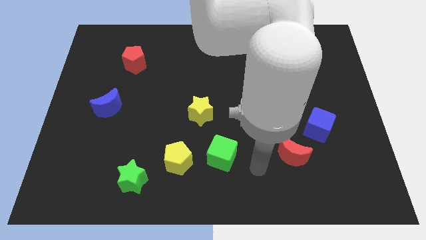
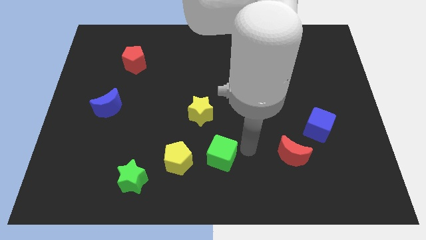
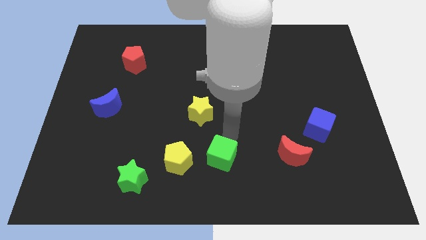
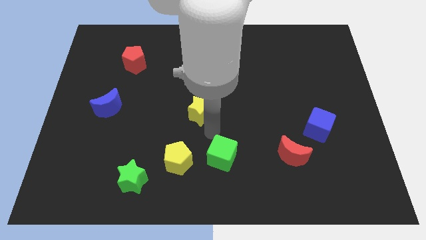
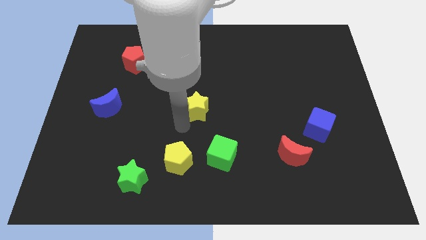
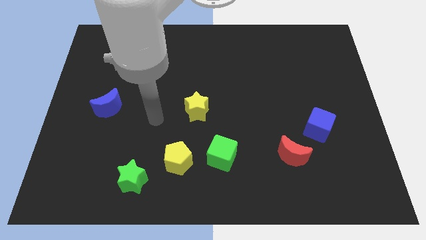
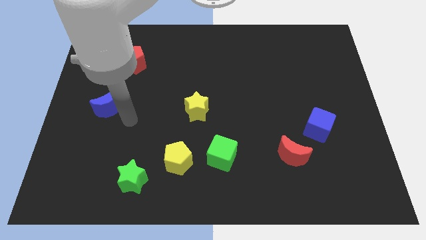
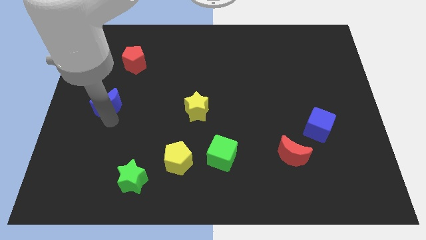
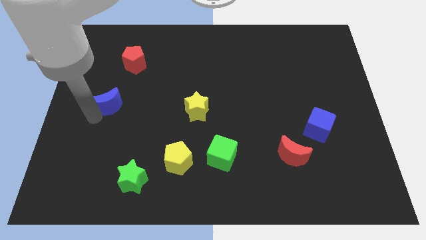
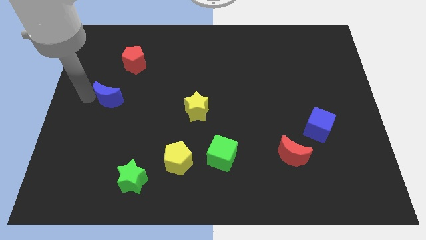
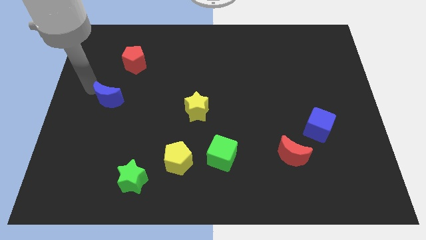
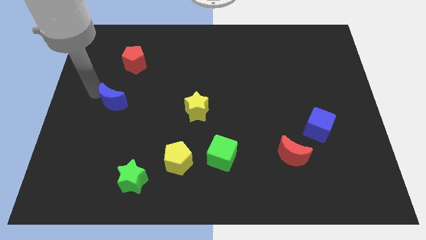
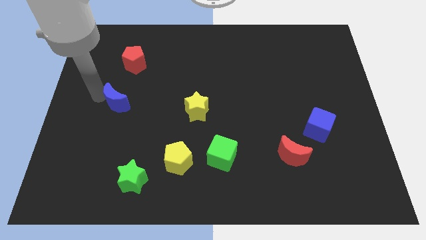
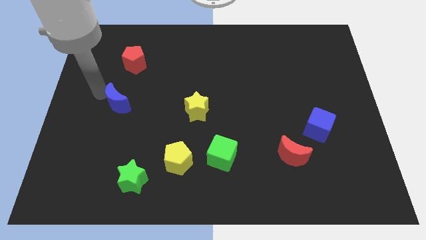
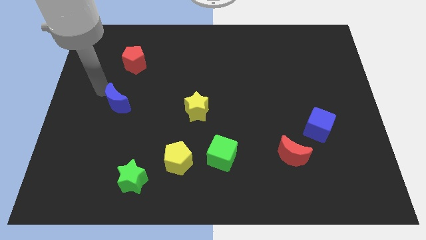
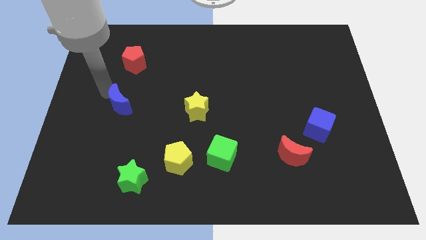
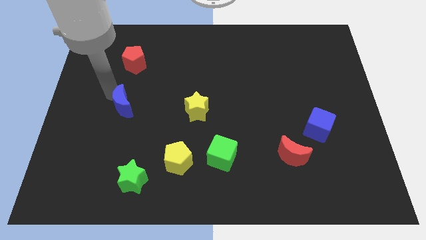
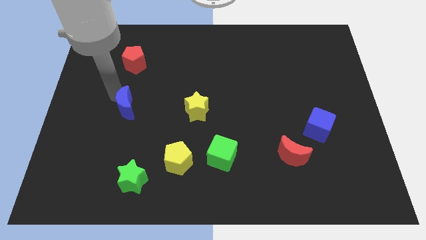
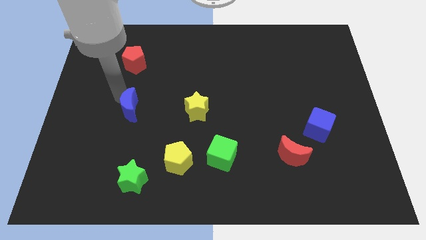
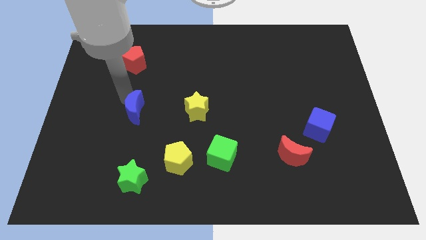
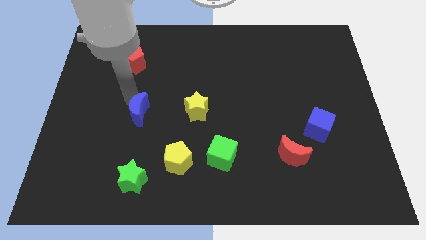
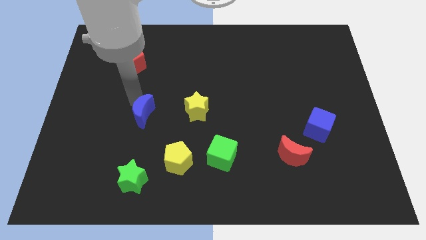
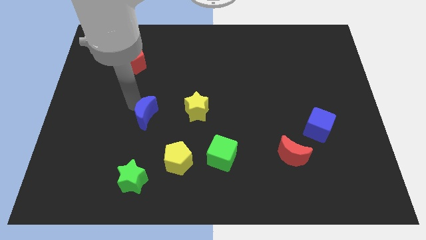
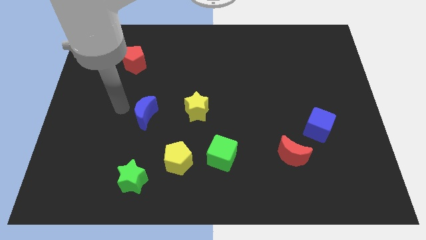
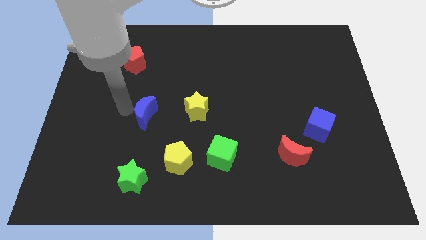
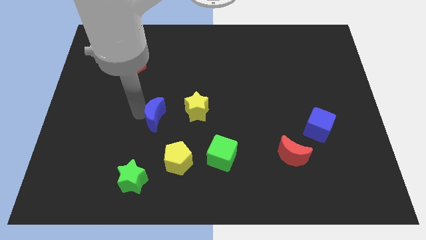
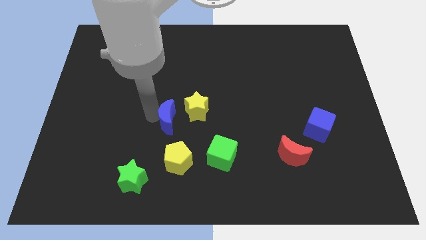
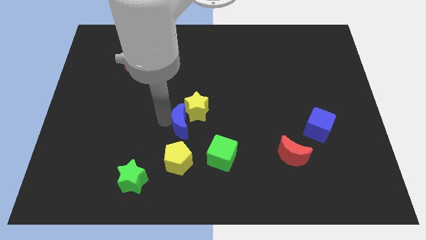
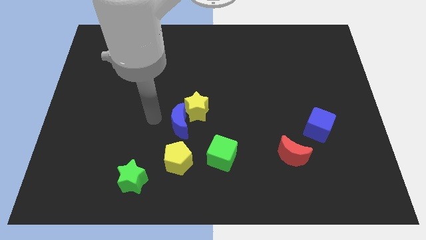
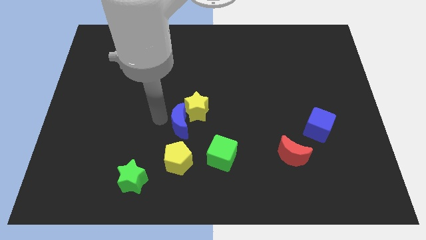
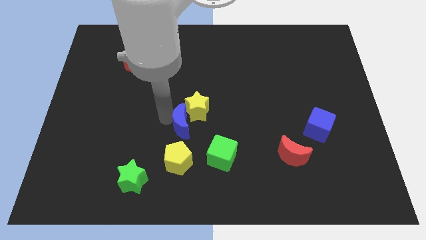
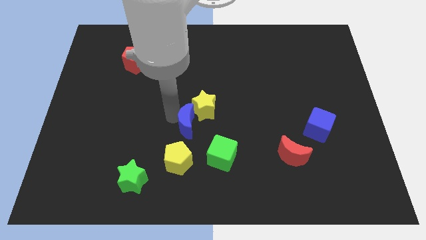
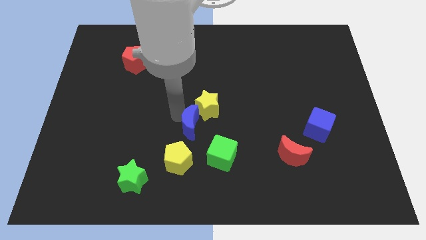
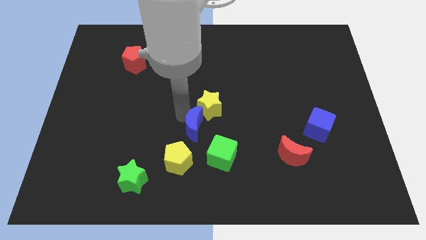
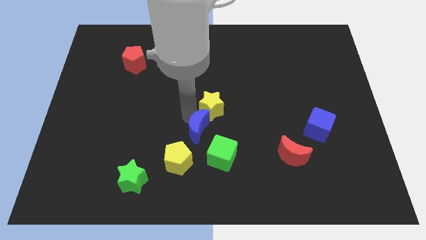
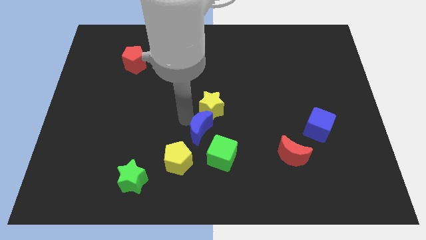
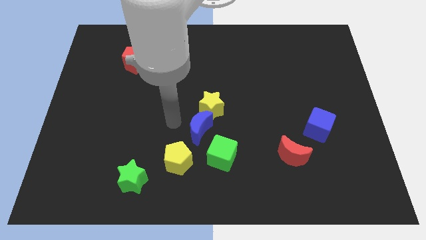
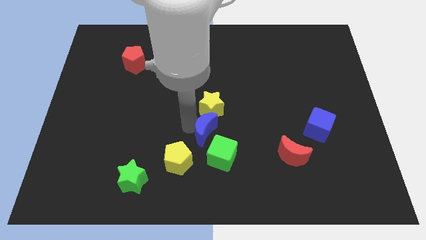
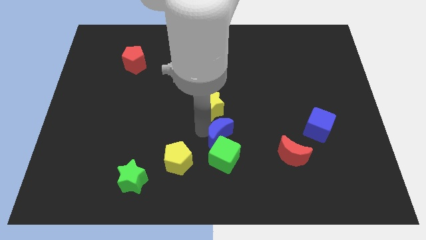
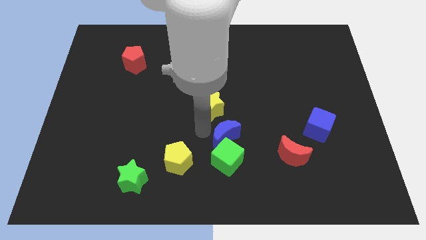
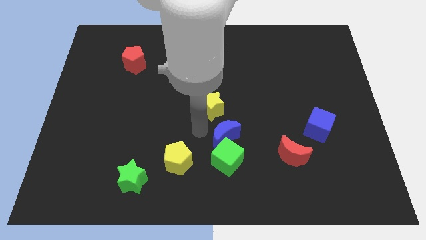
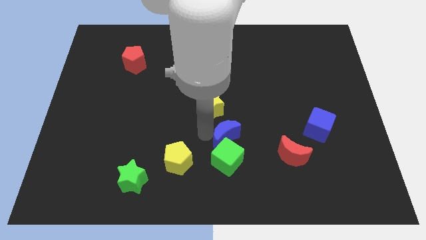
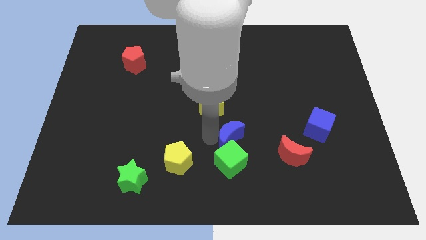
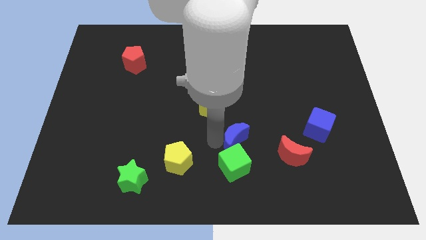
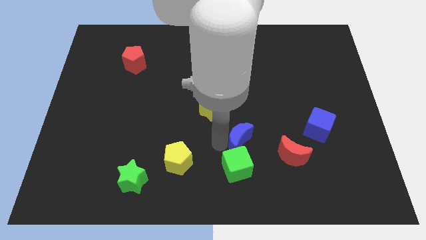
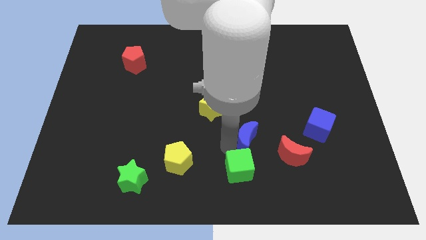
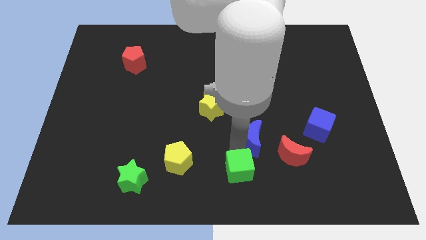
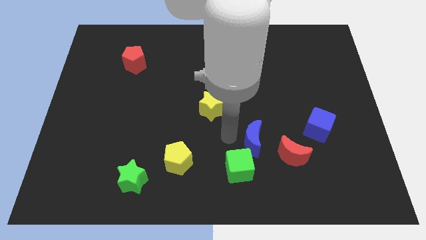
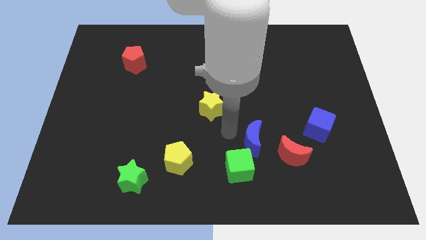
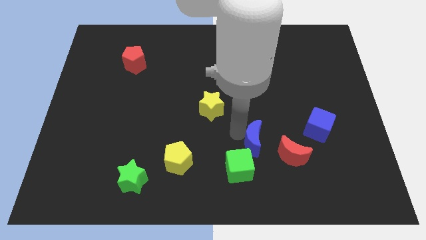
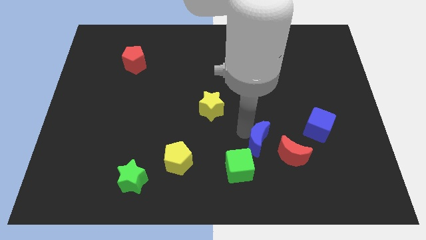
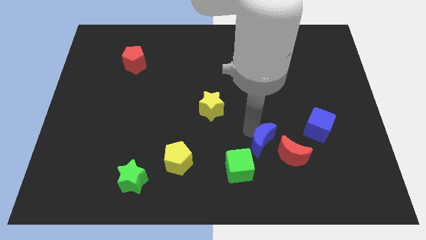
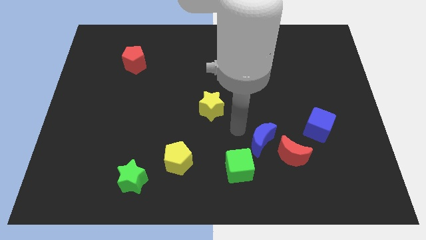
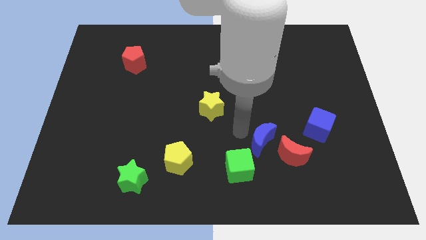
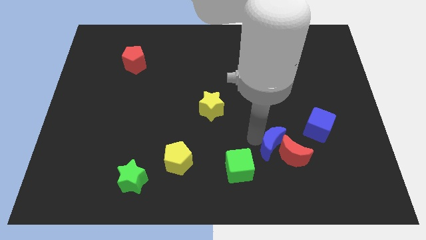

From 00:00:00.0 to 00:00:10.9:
move the blue moon to the red moon

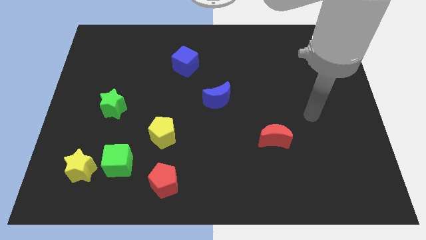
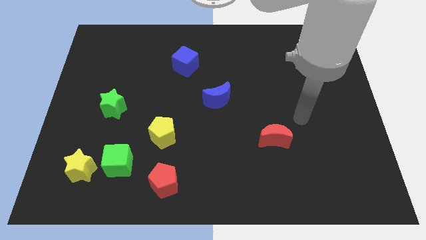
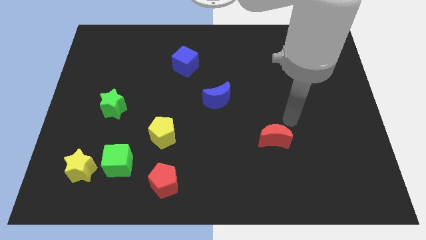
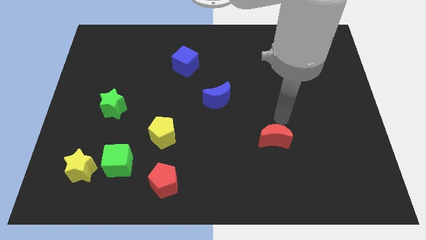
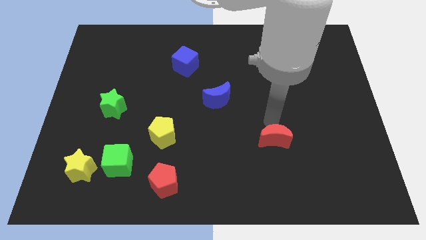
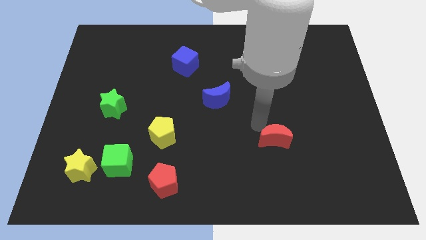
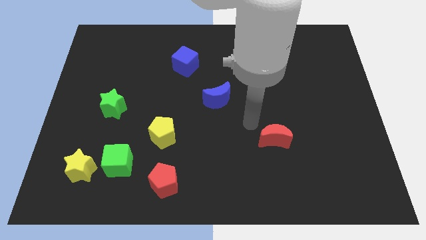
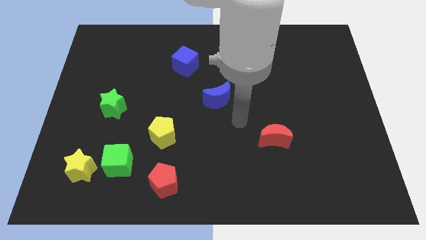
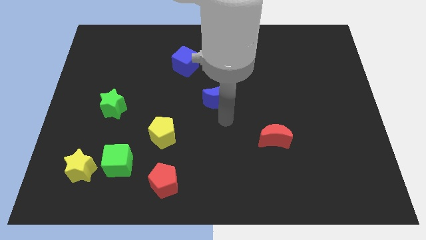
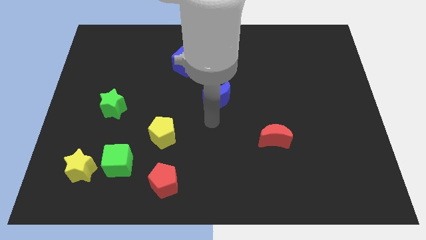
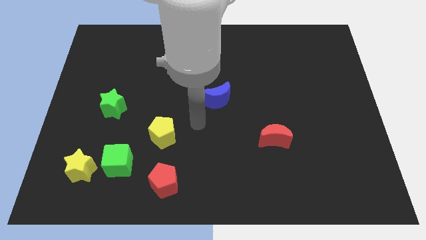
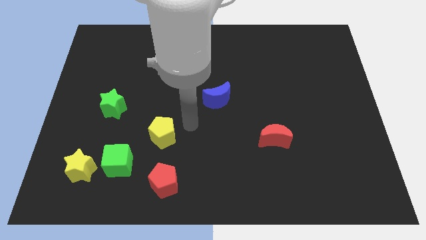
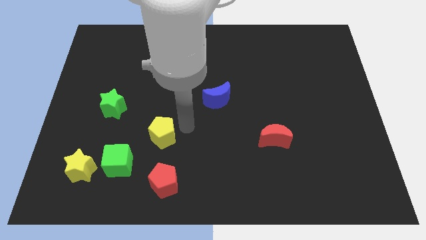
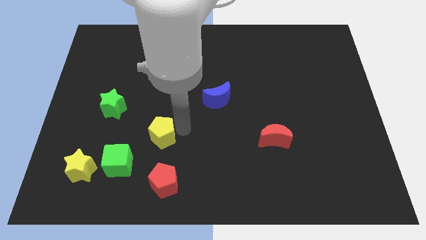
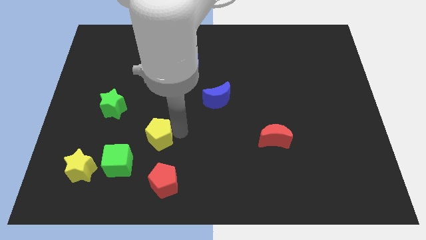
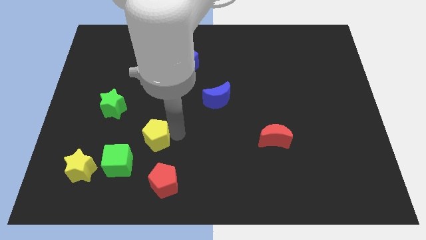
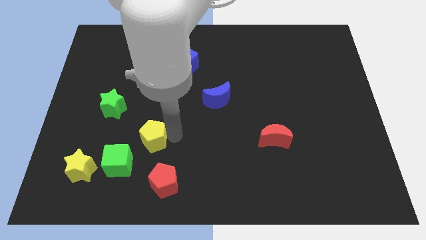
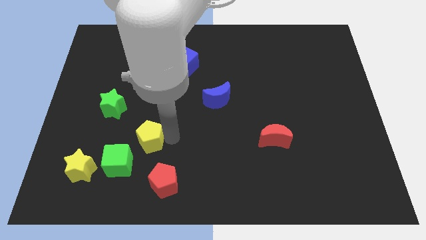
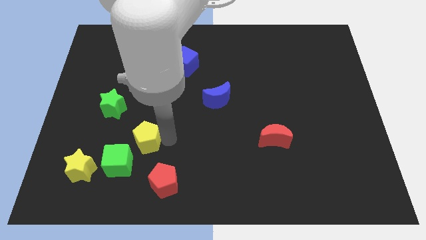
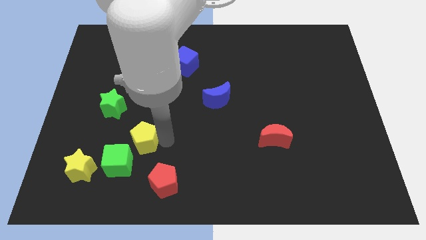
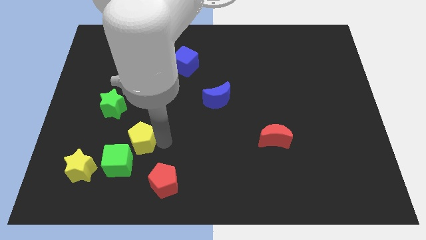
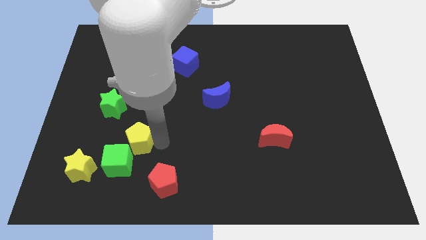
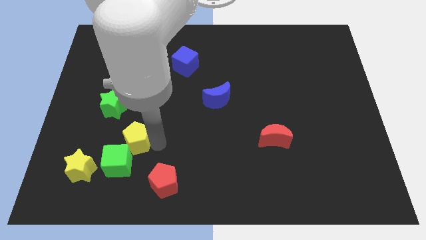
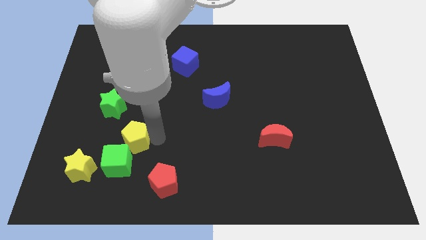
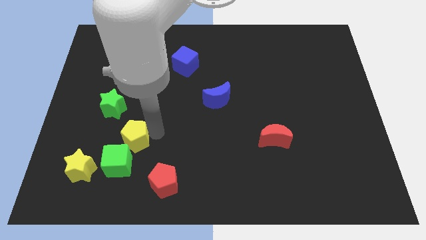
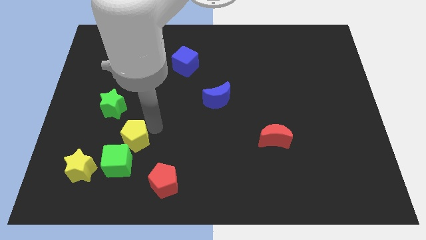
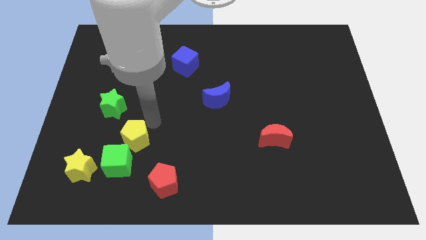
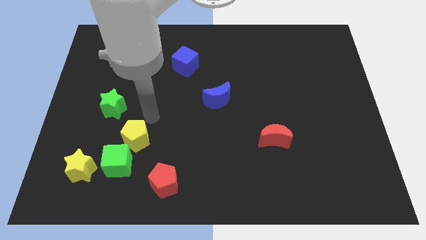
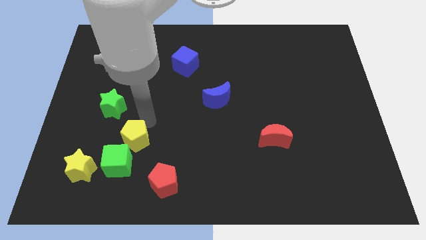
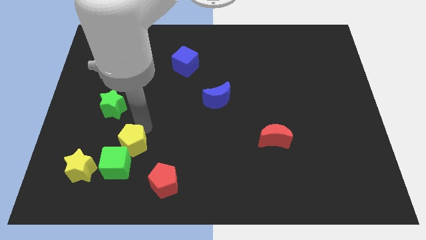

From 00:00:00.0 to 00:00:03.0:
slide the yellow pentagon next to the green cube
